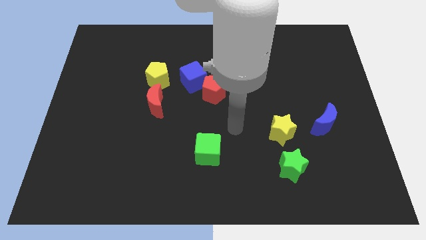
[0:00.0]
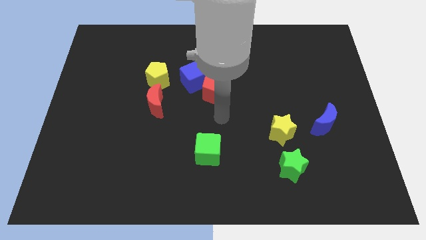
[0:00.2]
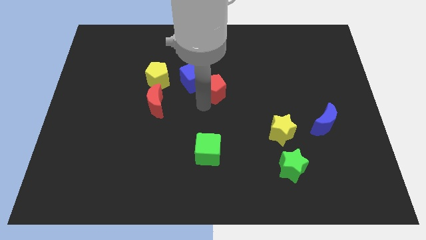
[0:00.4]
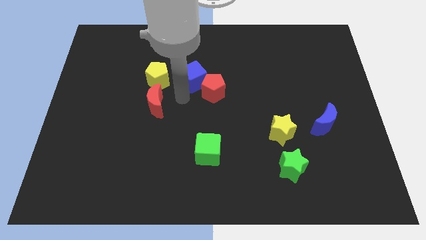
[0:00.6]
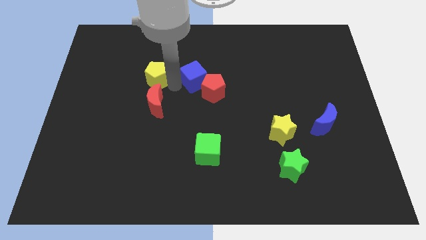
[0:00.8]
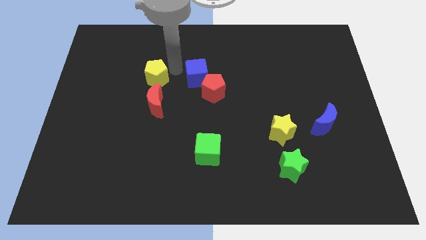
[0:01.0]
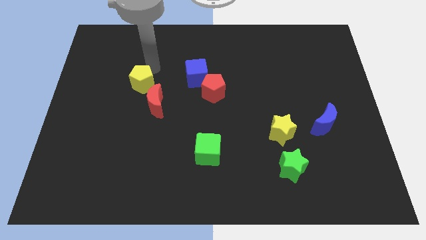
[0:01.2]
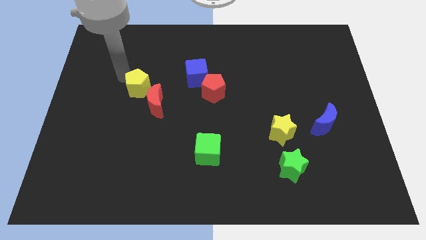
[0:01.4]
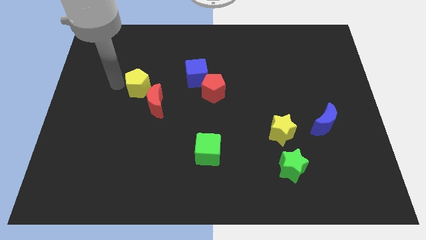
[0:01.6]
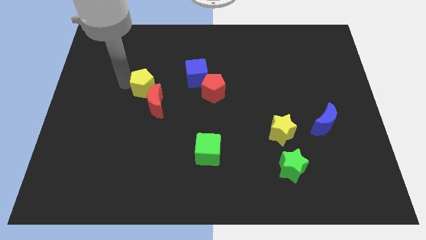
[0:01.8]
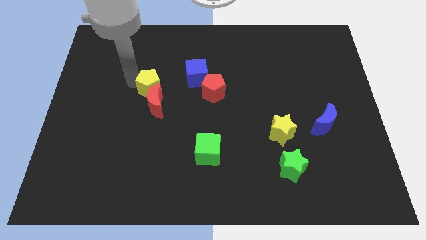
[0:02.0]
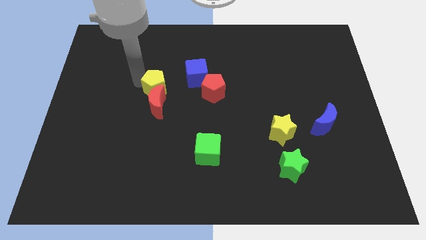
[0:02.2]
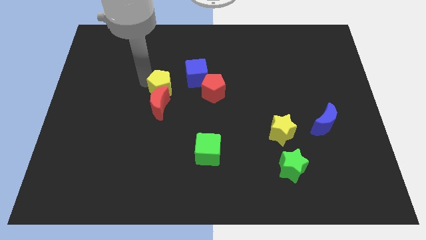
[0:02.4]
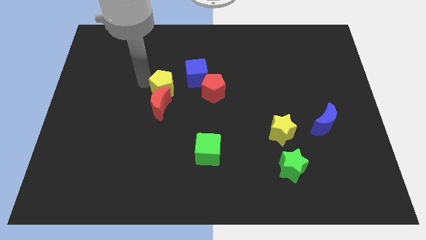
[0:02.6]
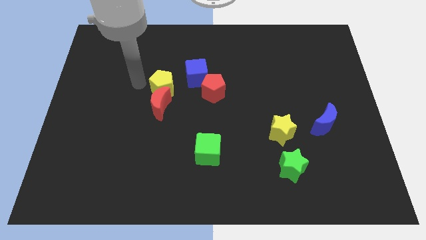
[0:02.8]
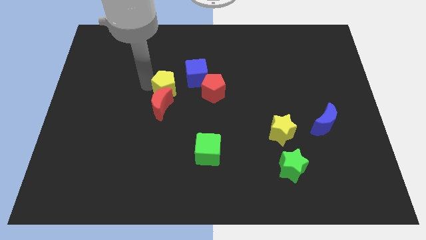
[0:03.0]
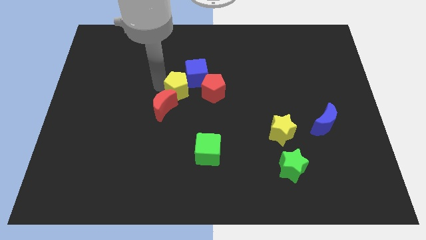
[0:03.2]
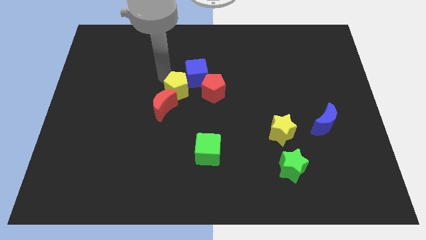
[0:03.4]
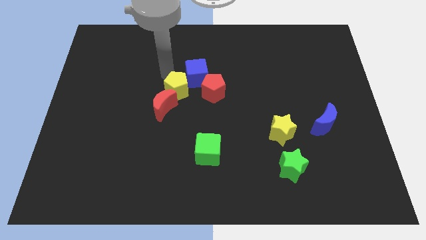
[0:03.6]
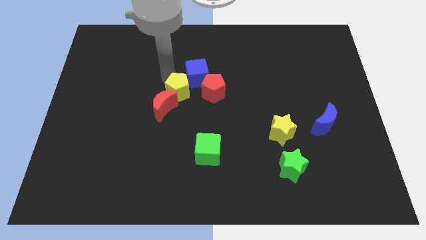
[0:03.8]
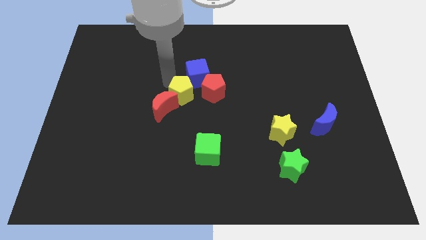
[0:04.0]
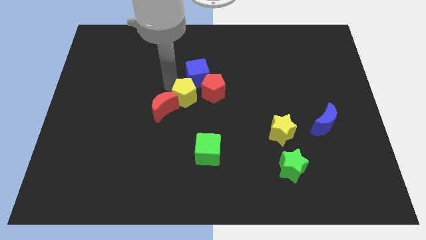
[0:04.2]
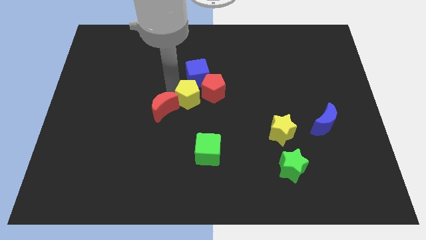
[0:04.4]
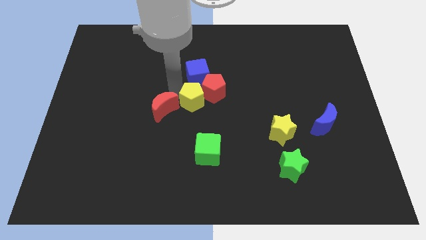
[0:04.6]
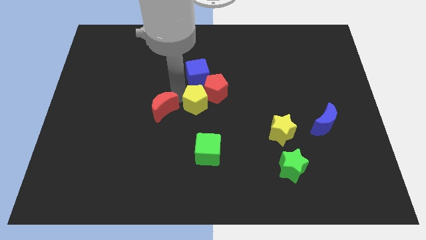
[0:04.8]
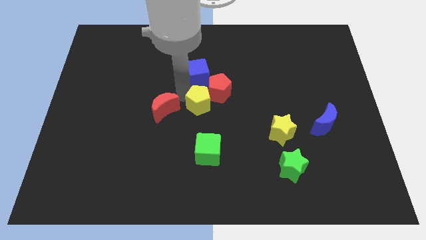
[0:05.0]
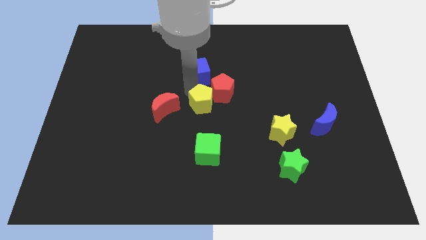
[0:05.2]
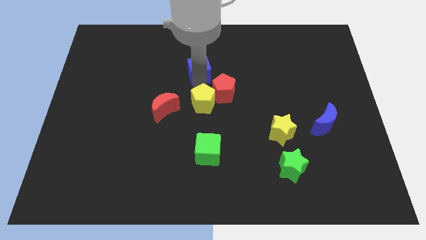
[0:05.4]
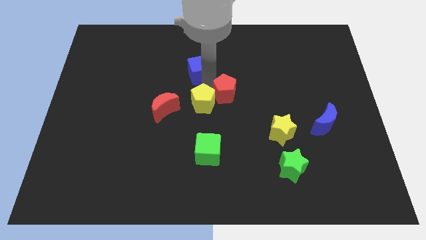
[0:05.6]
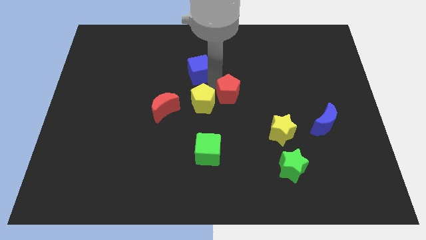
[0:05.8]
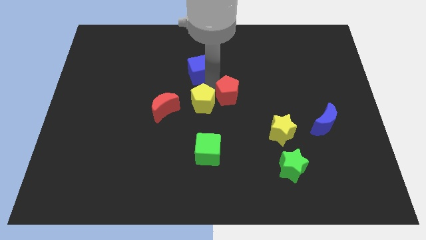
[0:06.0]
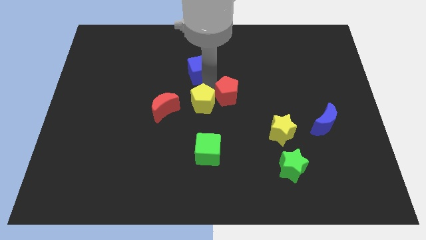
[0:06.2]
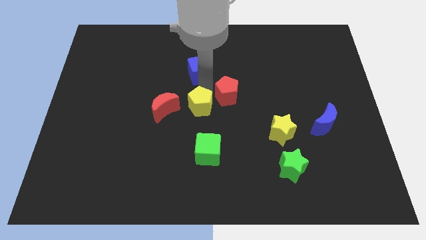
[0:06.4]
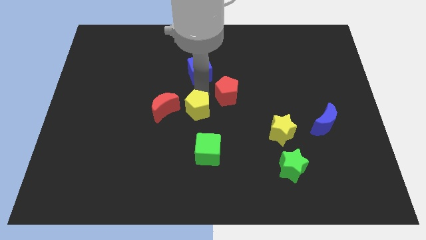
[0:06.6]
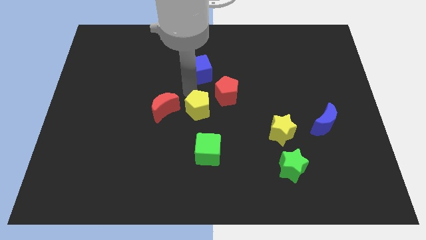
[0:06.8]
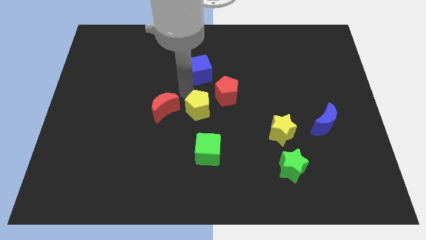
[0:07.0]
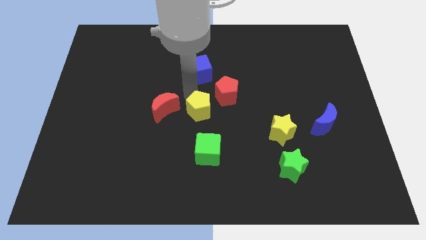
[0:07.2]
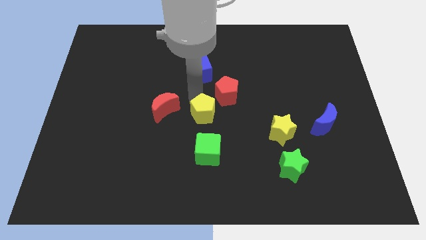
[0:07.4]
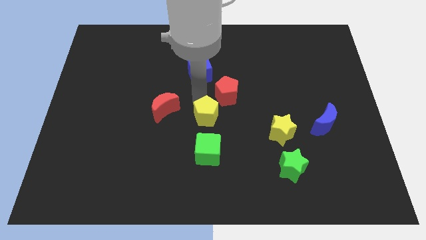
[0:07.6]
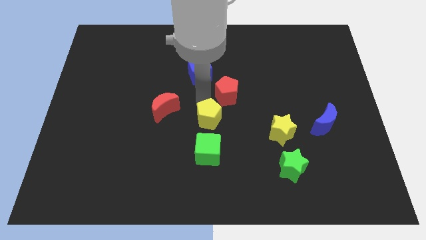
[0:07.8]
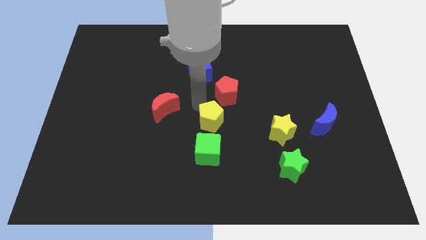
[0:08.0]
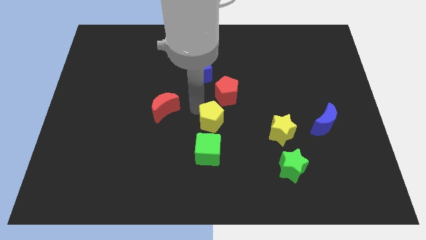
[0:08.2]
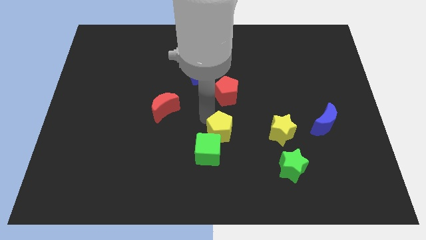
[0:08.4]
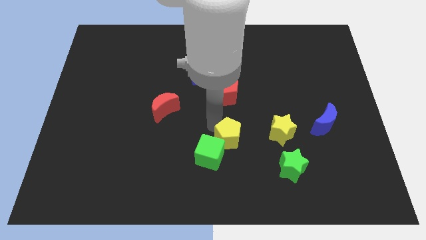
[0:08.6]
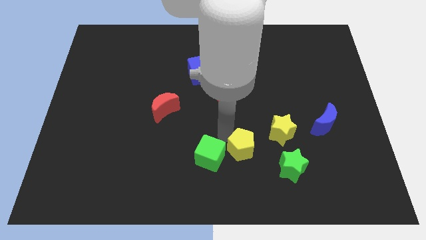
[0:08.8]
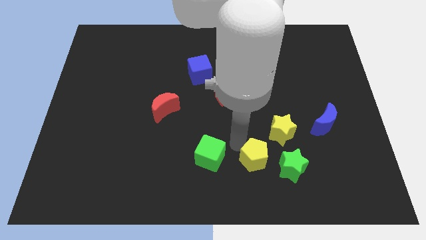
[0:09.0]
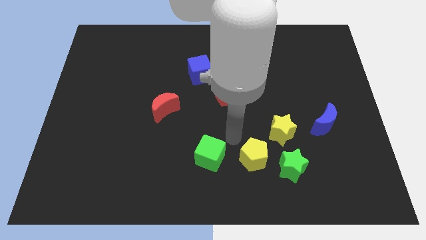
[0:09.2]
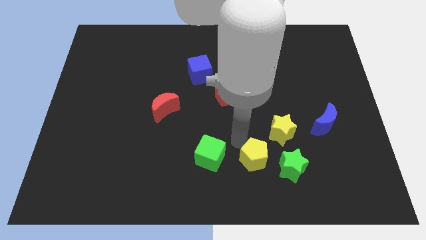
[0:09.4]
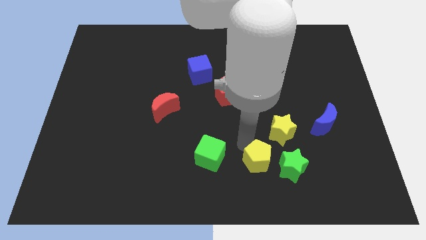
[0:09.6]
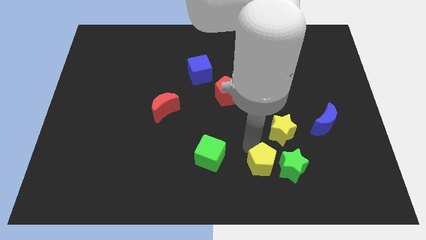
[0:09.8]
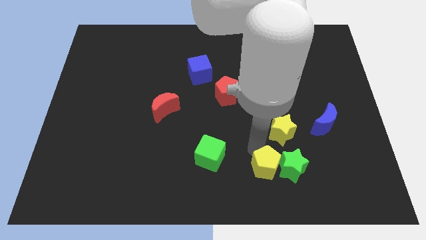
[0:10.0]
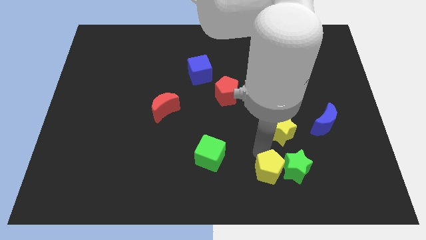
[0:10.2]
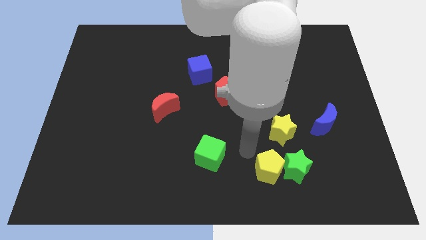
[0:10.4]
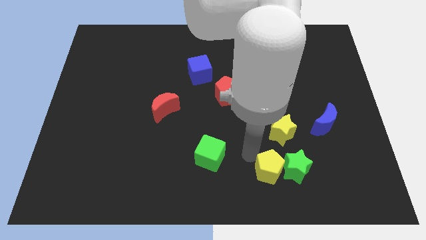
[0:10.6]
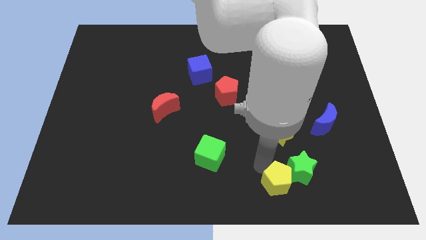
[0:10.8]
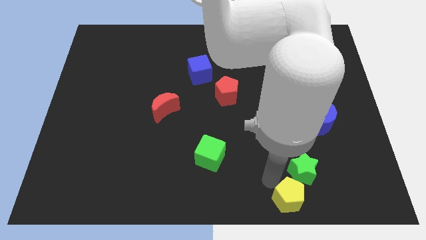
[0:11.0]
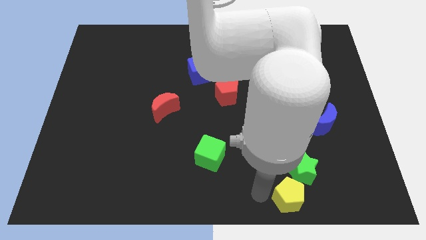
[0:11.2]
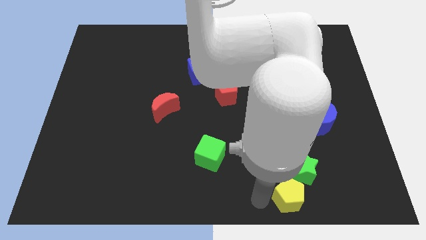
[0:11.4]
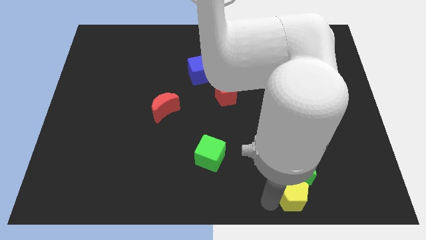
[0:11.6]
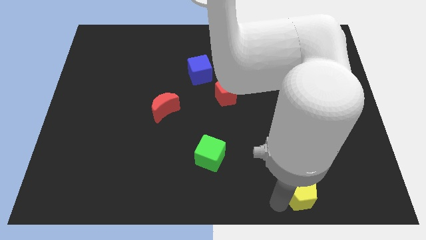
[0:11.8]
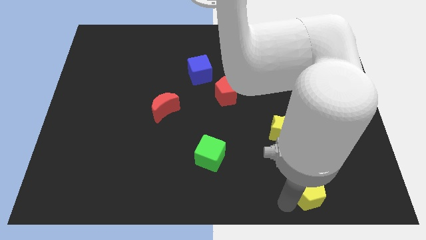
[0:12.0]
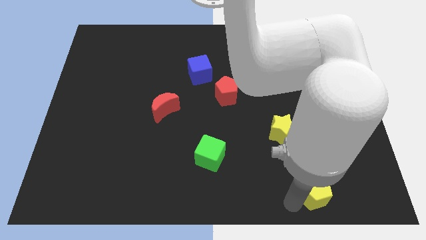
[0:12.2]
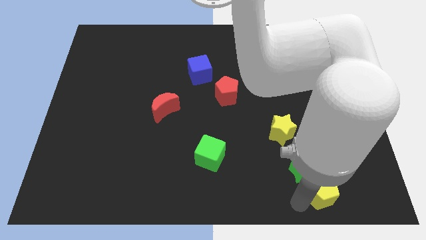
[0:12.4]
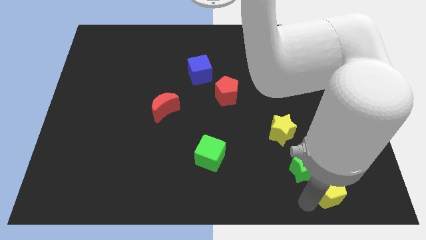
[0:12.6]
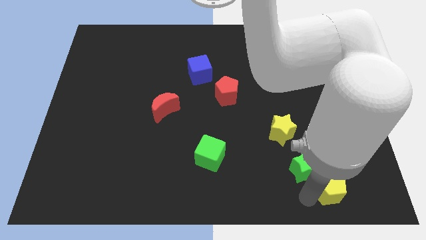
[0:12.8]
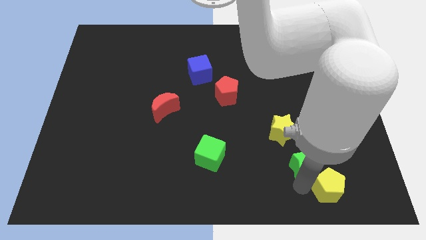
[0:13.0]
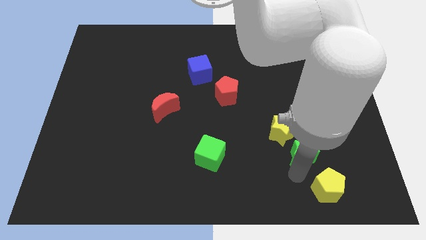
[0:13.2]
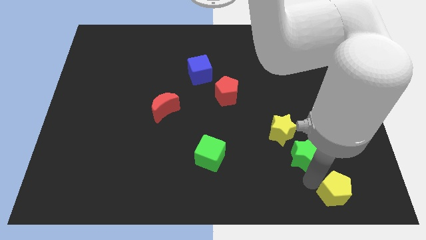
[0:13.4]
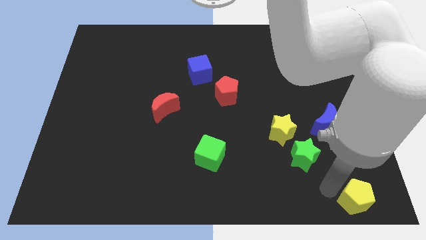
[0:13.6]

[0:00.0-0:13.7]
slide the yellow pentagon to the bottom right
